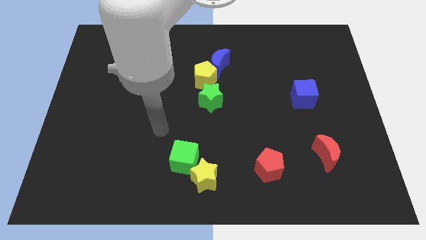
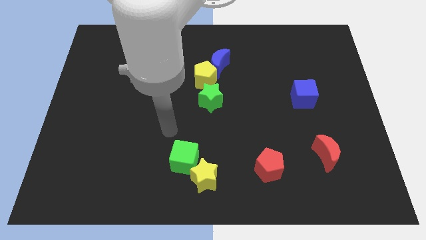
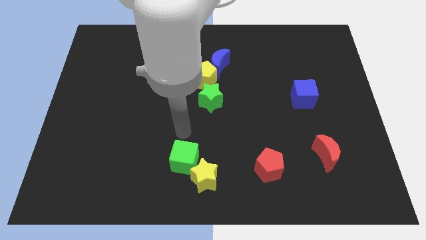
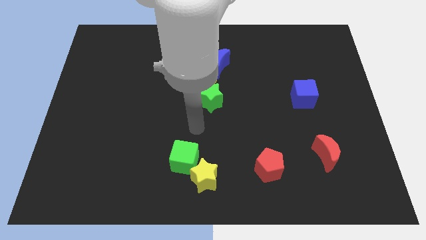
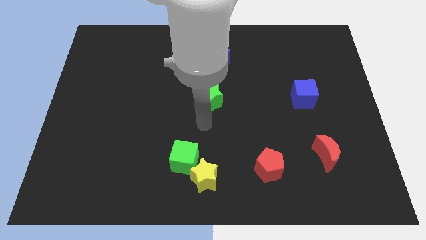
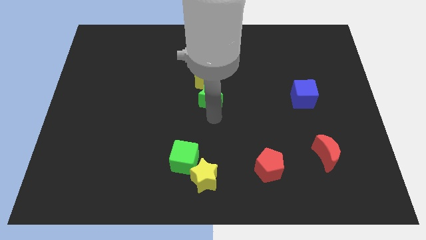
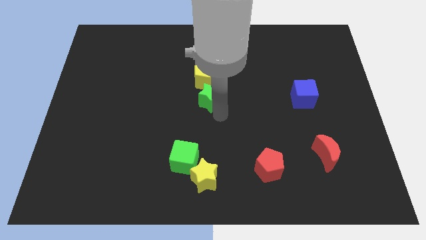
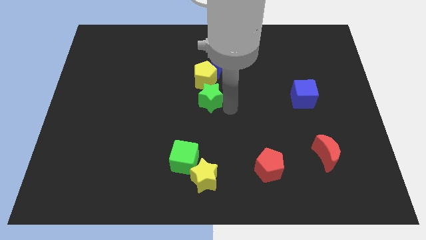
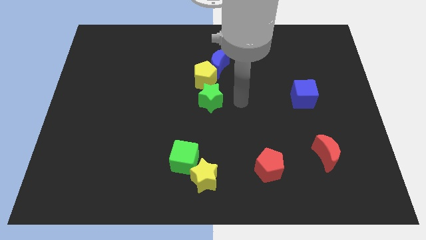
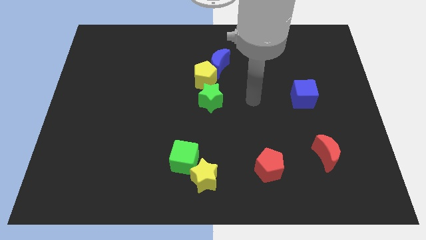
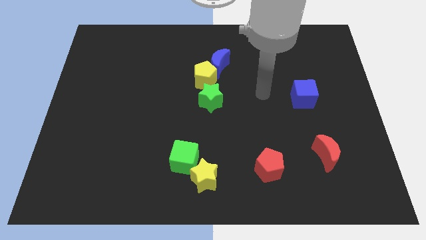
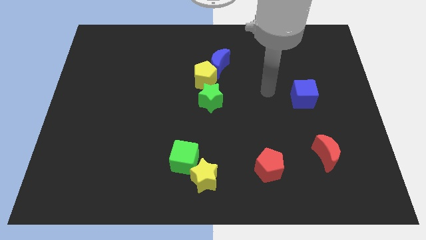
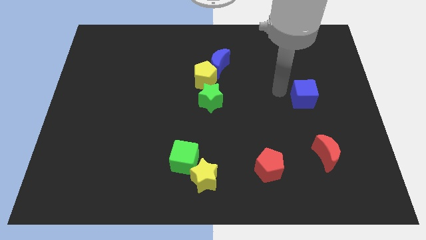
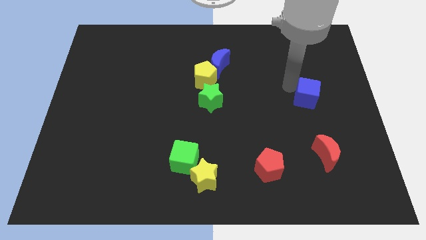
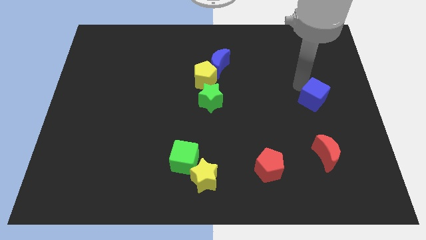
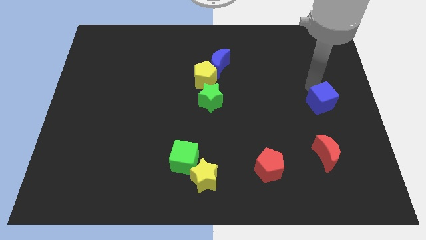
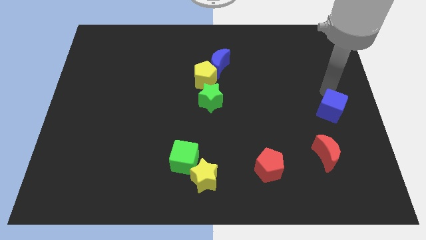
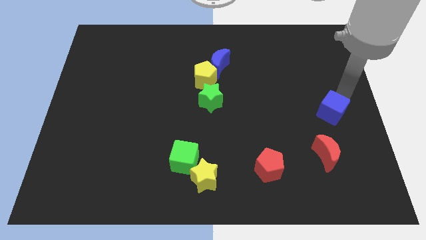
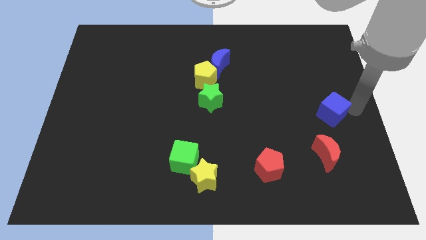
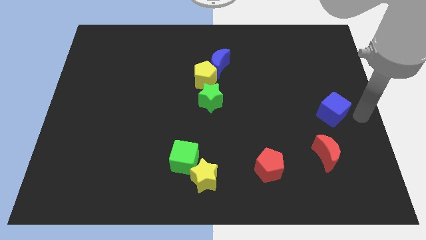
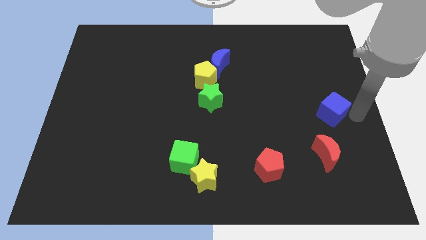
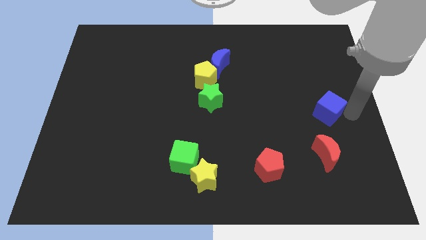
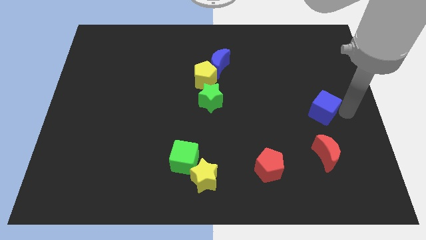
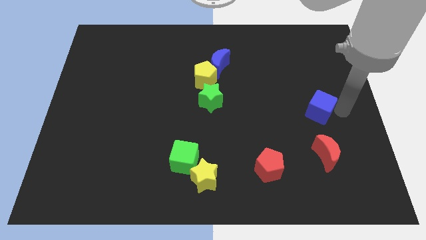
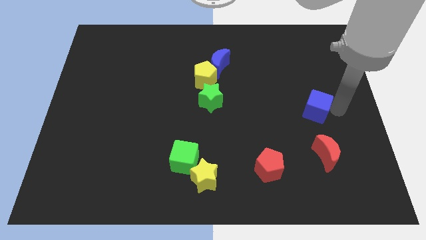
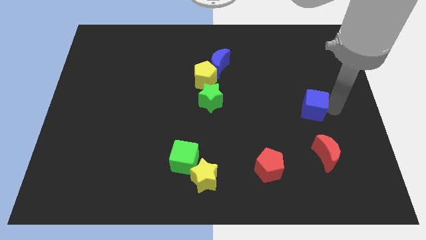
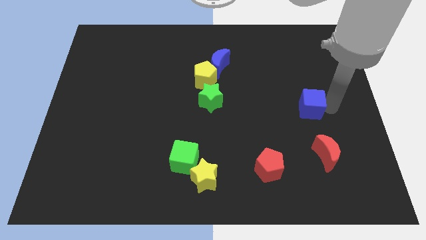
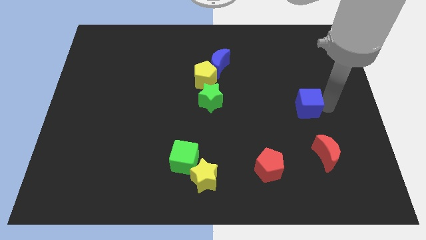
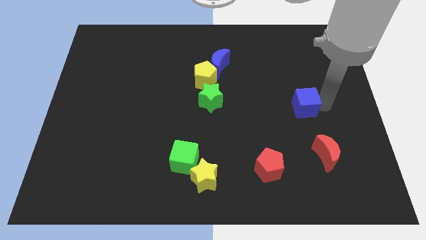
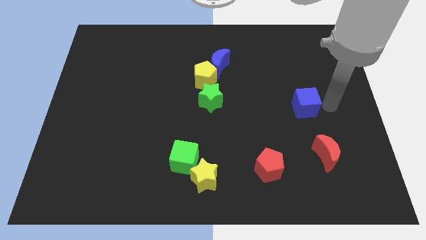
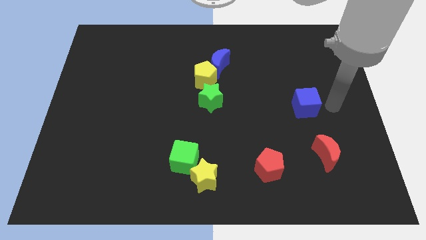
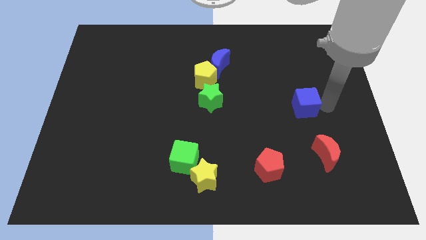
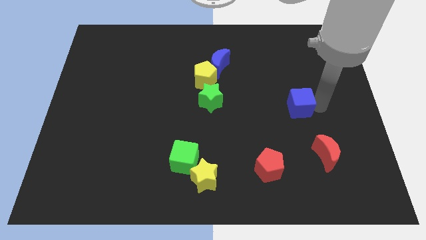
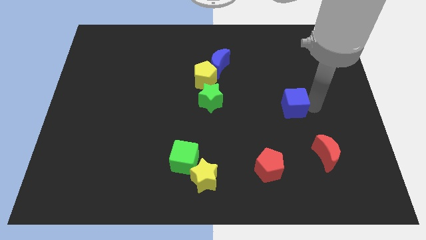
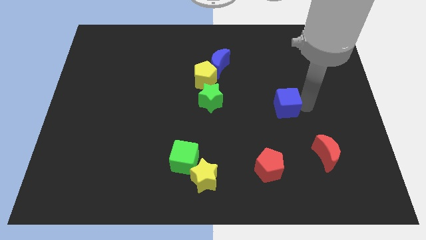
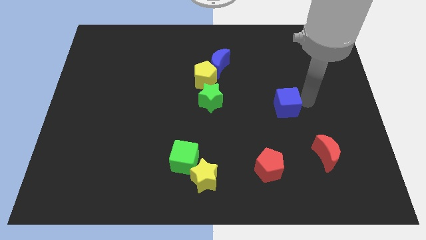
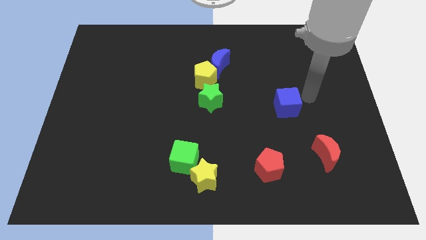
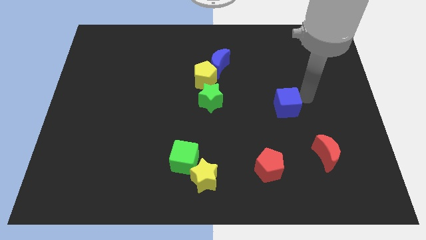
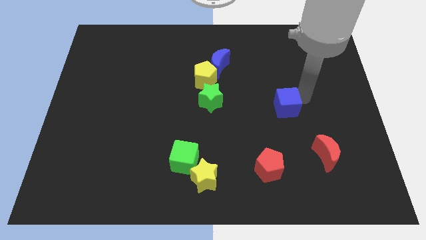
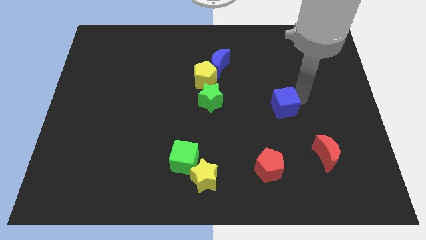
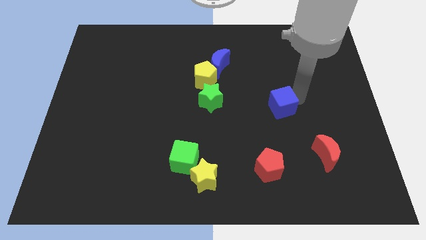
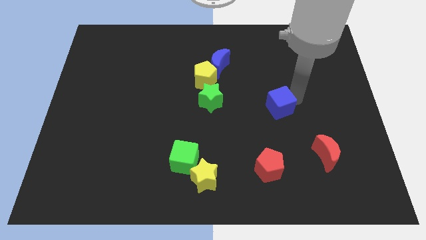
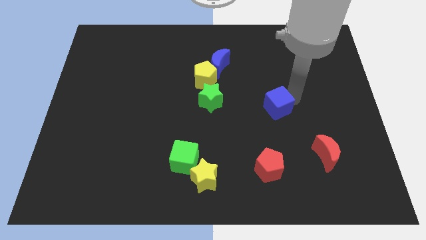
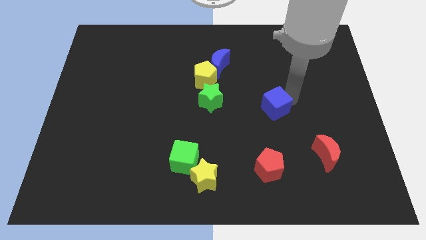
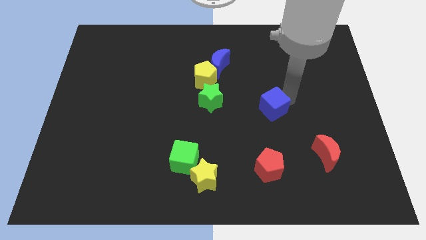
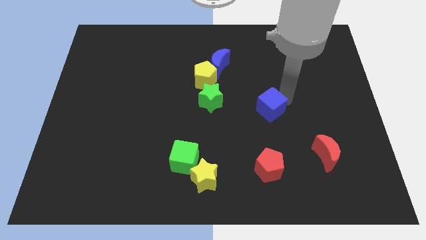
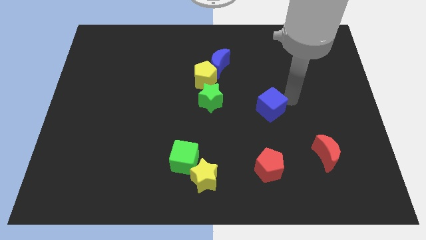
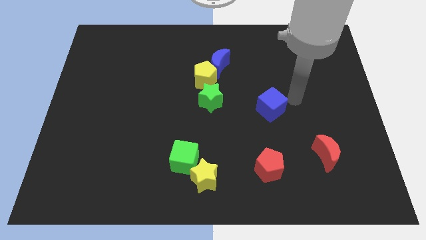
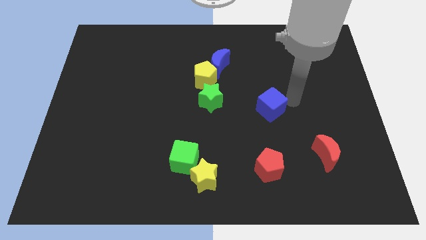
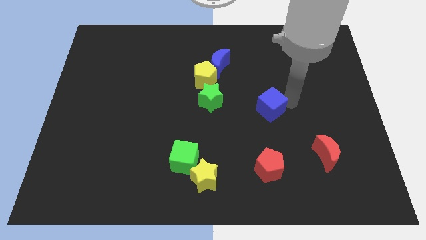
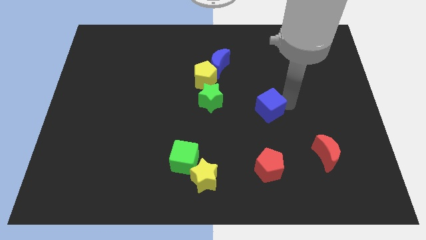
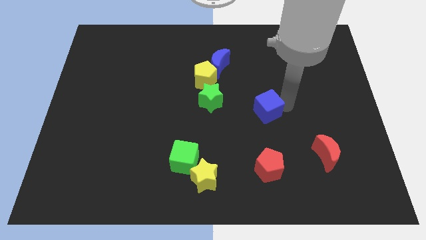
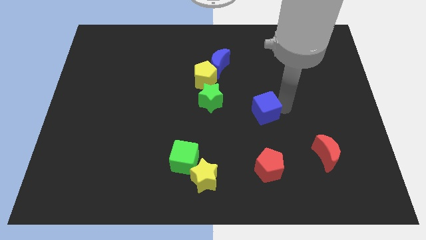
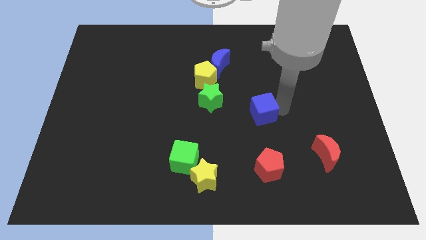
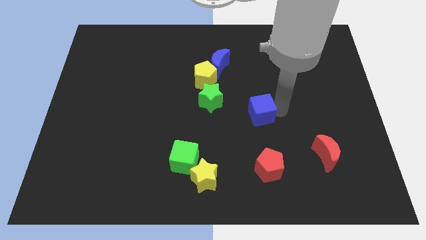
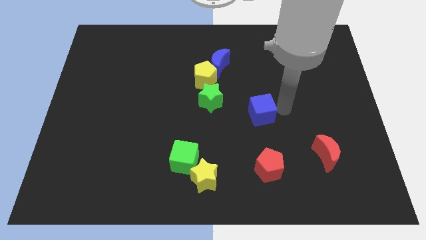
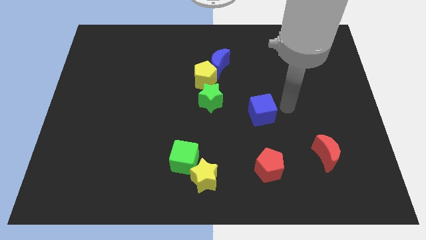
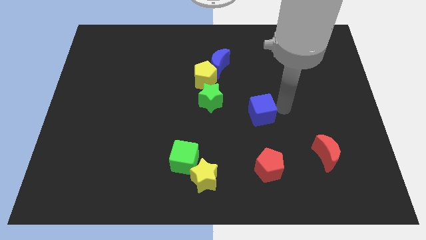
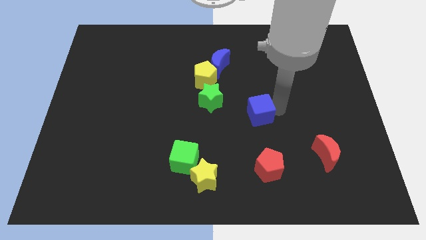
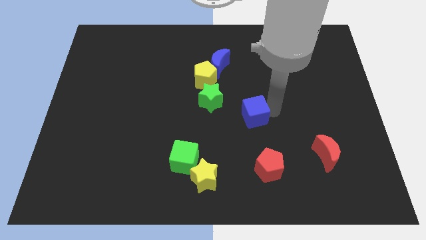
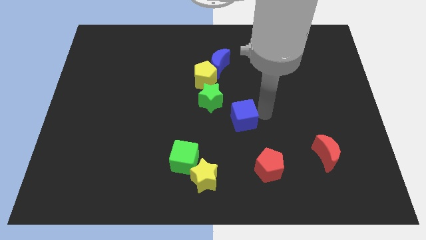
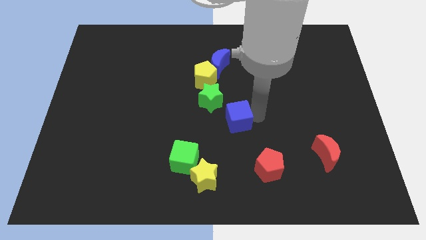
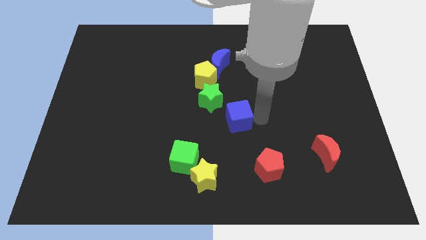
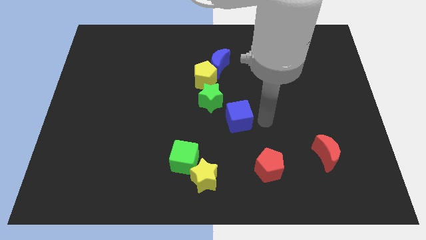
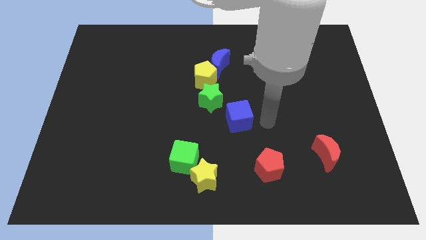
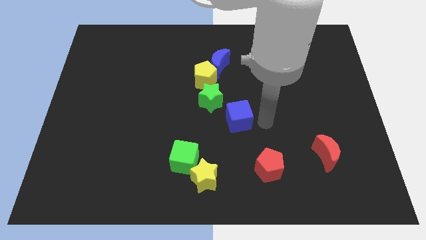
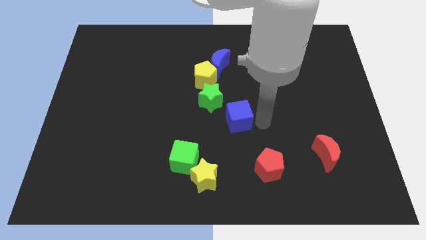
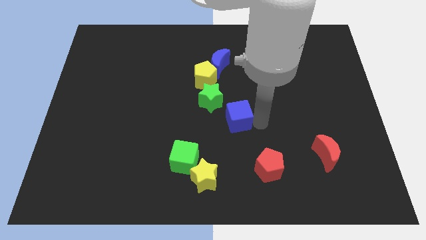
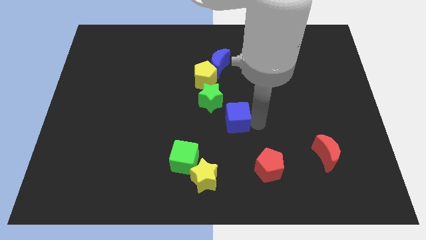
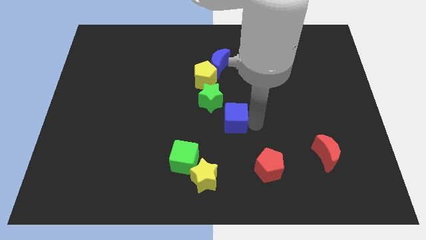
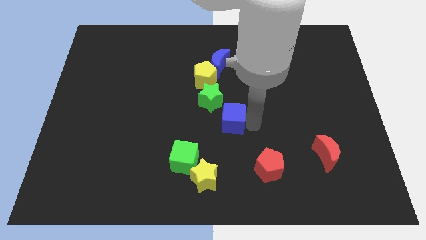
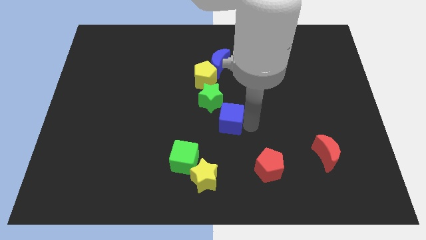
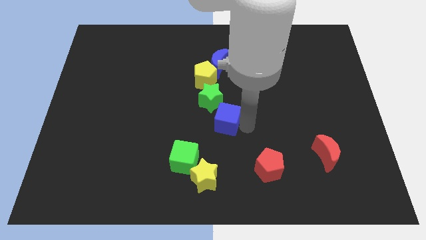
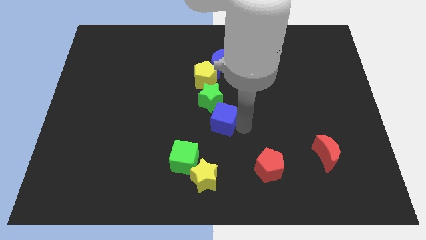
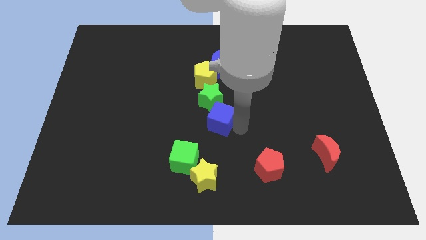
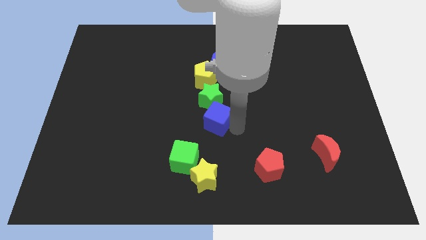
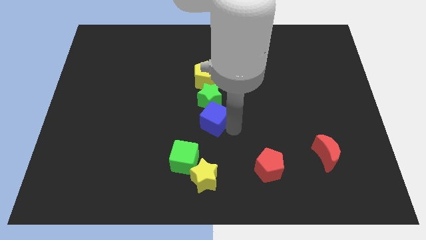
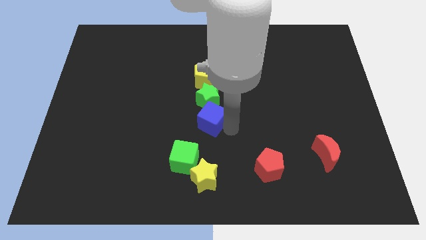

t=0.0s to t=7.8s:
move the blue cube to the left

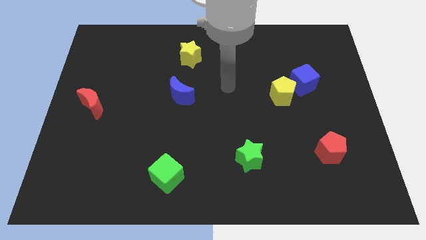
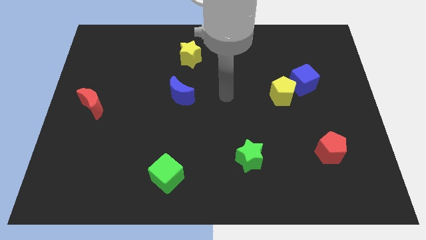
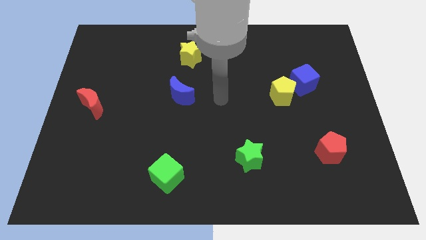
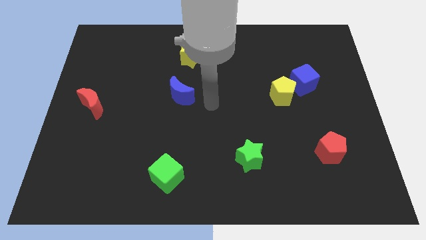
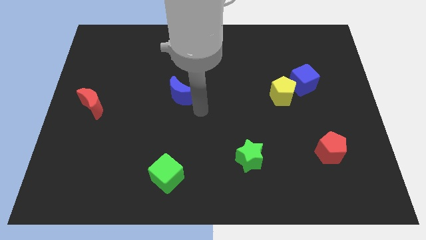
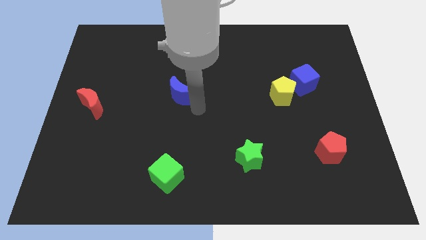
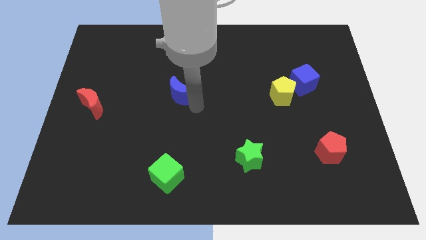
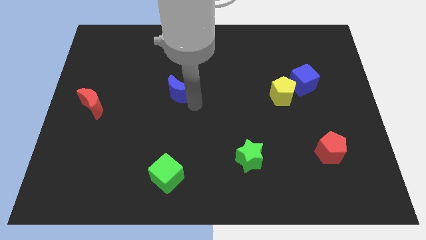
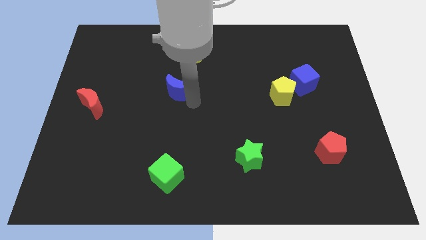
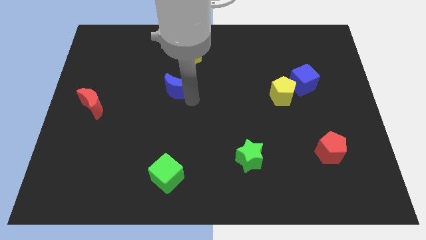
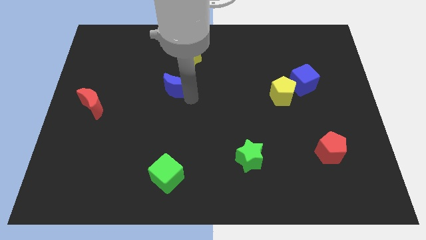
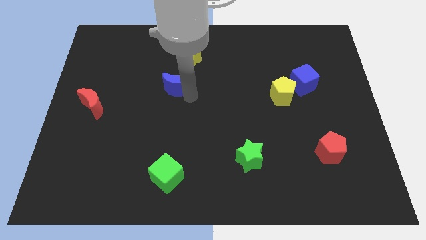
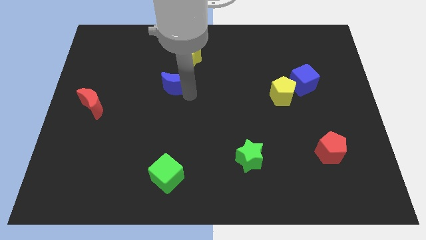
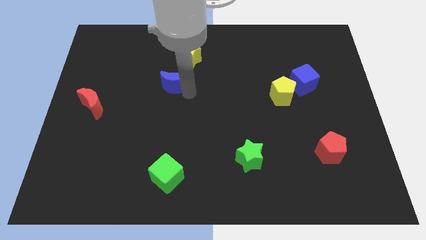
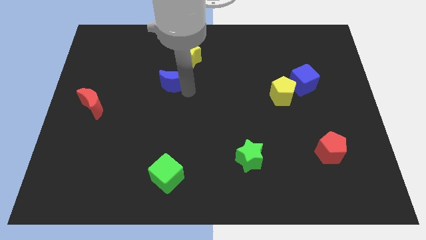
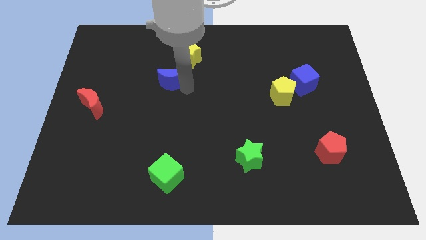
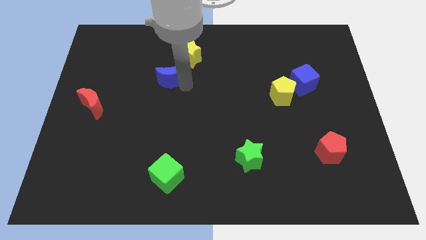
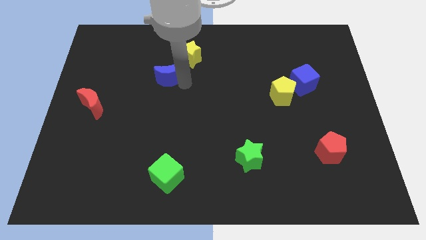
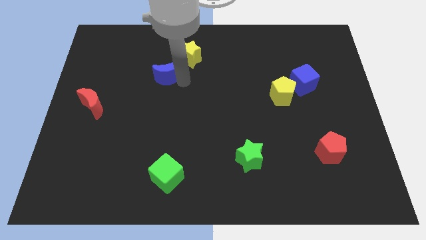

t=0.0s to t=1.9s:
slide the blue moon up and left diagonally a little
